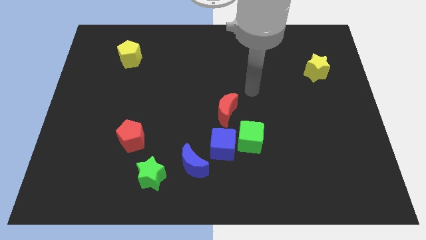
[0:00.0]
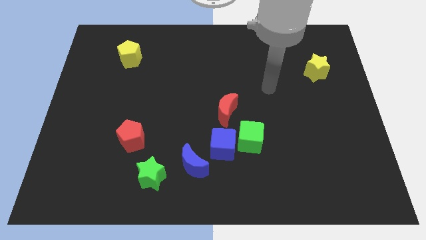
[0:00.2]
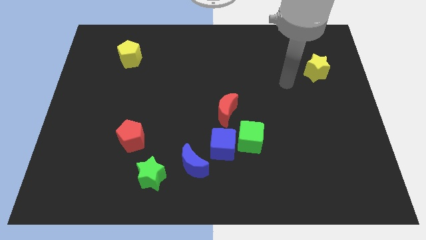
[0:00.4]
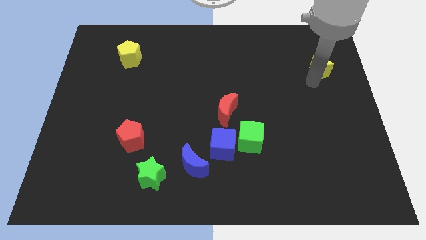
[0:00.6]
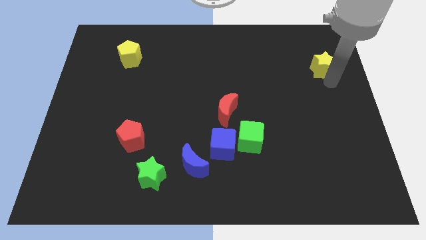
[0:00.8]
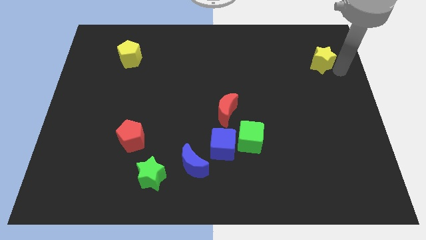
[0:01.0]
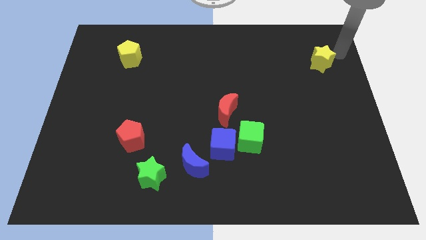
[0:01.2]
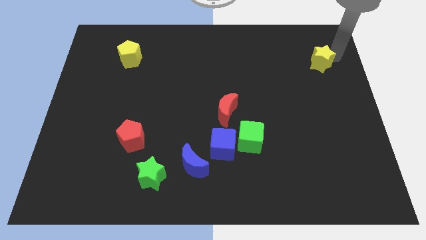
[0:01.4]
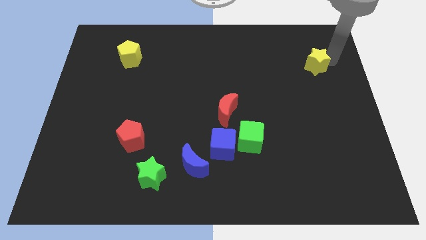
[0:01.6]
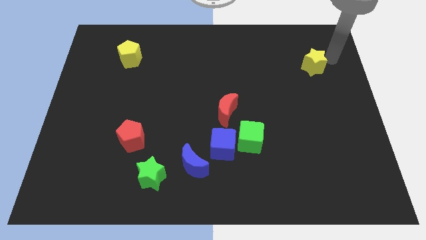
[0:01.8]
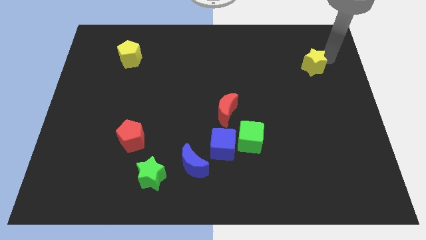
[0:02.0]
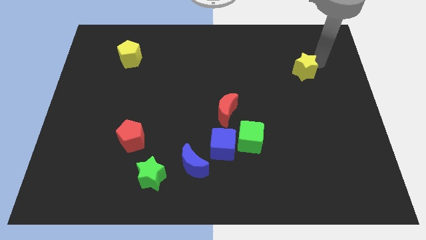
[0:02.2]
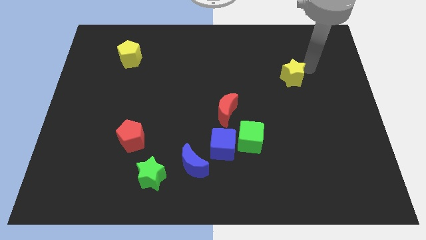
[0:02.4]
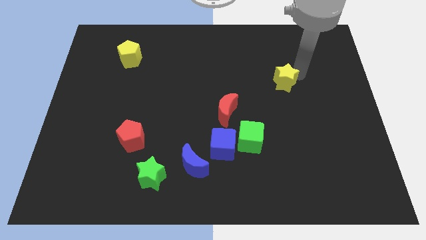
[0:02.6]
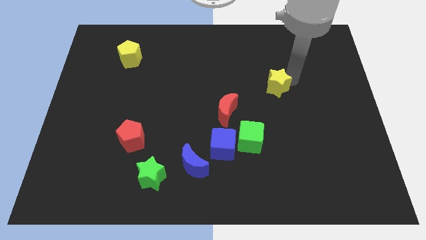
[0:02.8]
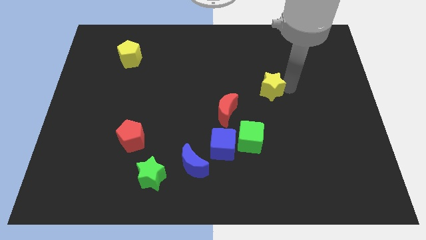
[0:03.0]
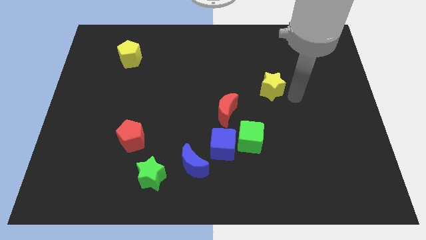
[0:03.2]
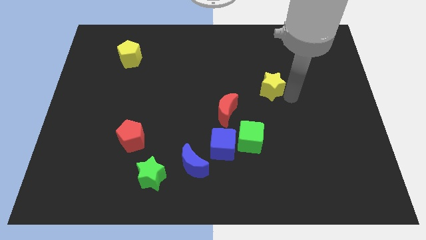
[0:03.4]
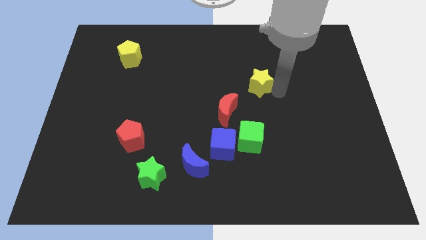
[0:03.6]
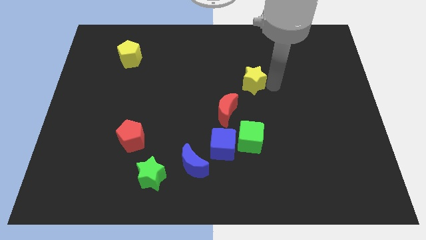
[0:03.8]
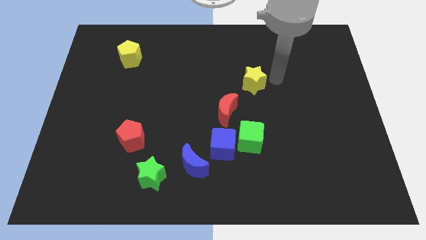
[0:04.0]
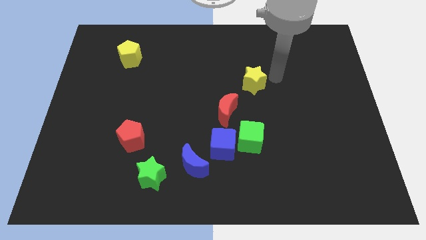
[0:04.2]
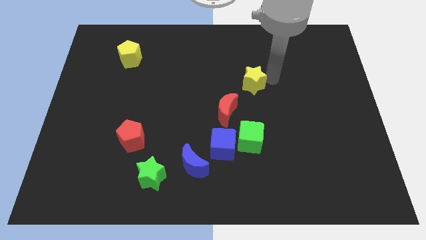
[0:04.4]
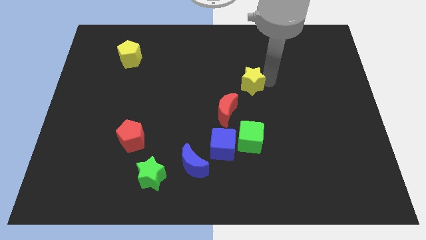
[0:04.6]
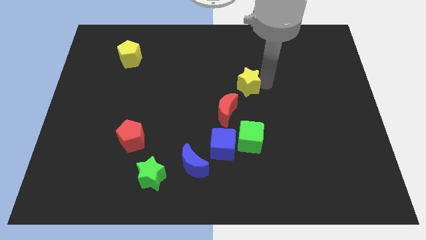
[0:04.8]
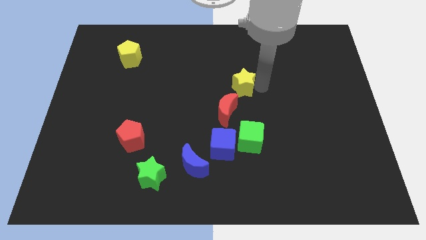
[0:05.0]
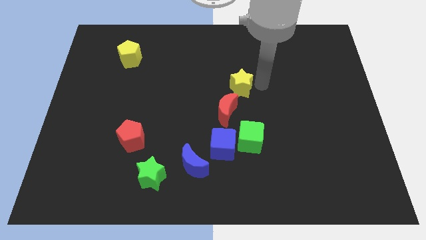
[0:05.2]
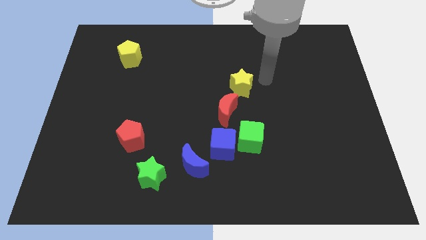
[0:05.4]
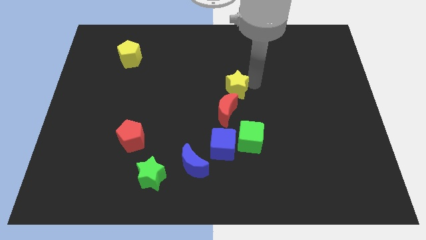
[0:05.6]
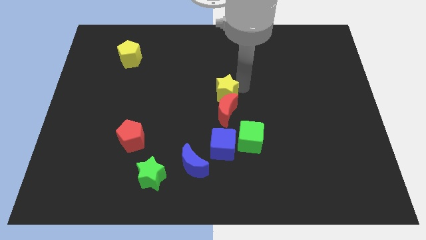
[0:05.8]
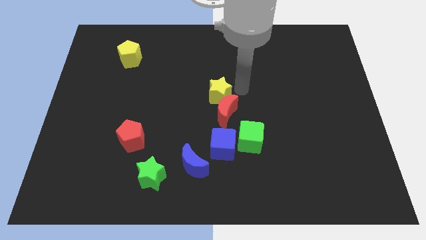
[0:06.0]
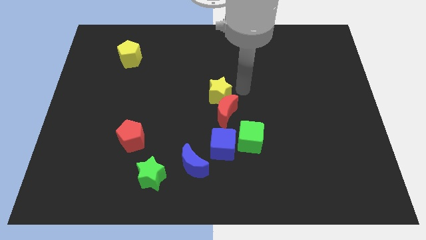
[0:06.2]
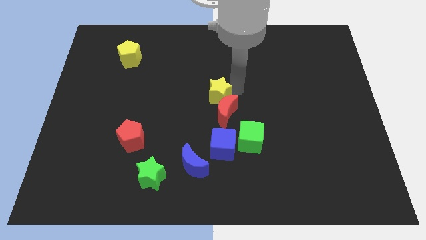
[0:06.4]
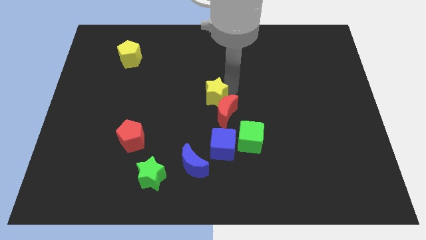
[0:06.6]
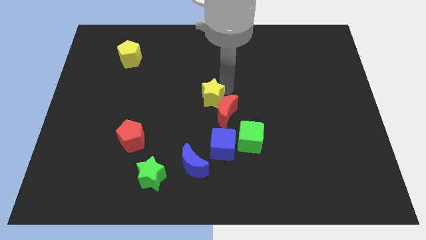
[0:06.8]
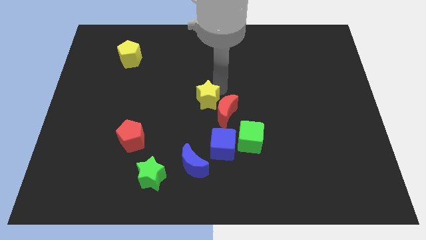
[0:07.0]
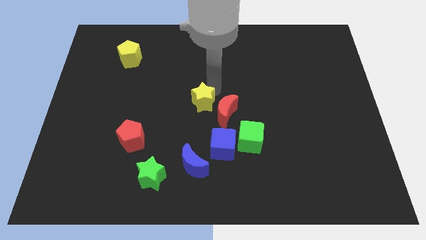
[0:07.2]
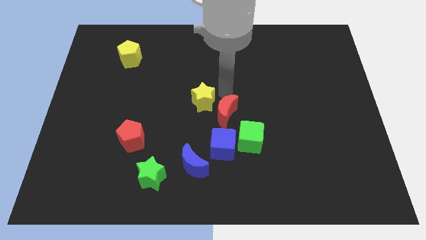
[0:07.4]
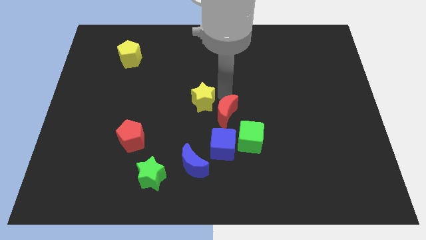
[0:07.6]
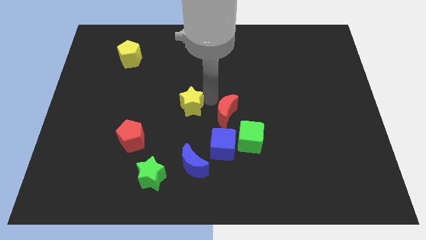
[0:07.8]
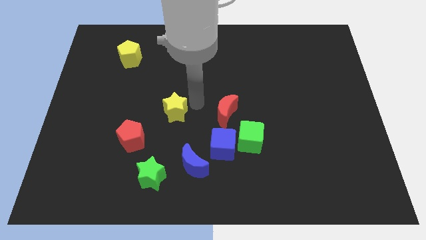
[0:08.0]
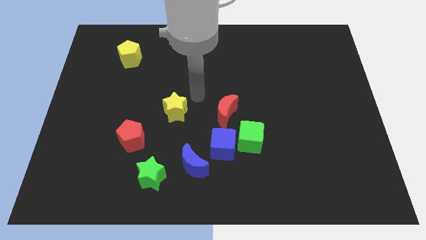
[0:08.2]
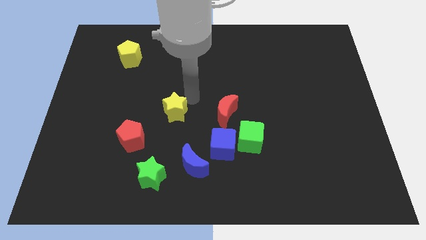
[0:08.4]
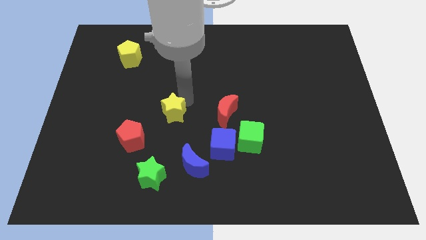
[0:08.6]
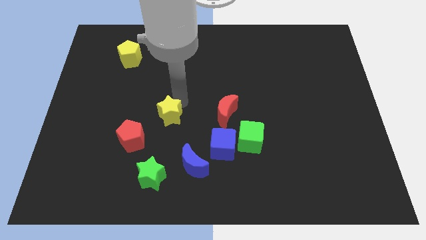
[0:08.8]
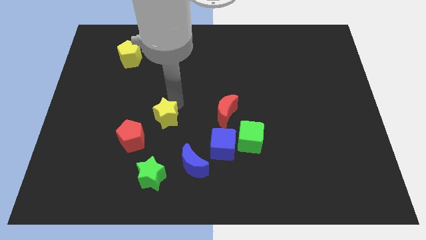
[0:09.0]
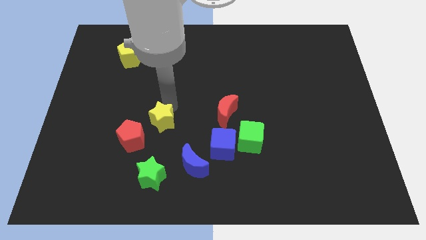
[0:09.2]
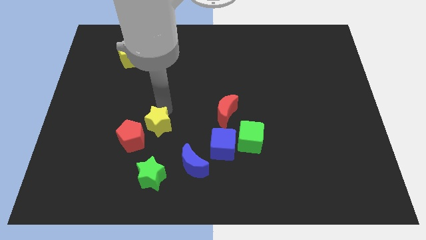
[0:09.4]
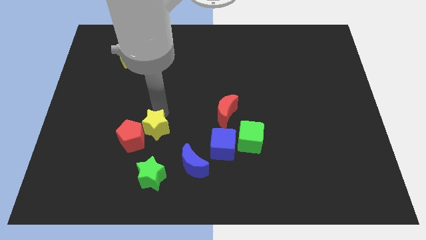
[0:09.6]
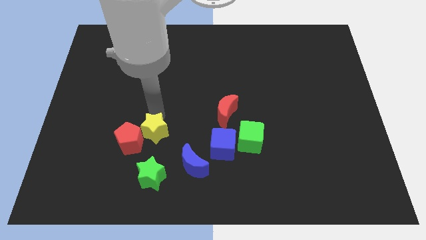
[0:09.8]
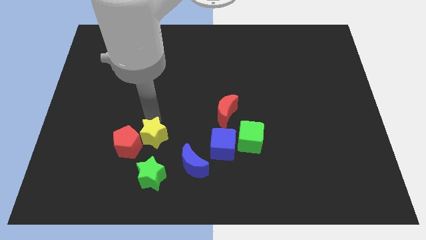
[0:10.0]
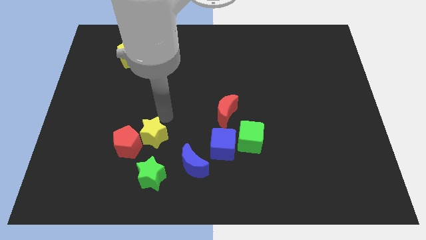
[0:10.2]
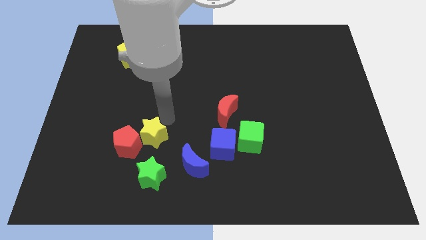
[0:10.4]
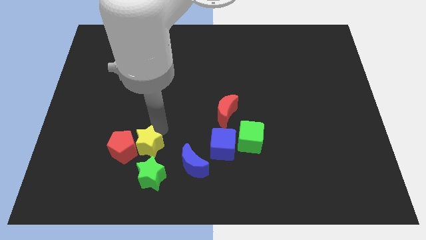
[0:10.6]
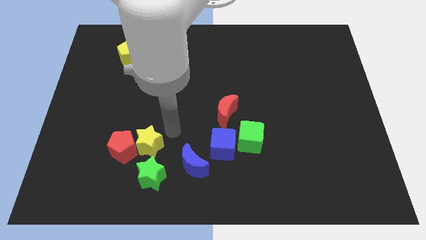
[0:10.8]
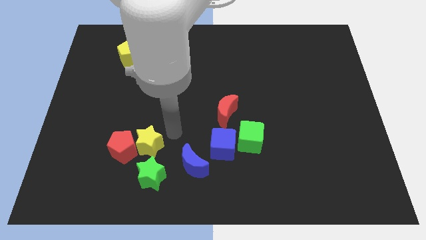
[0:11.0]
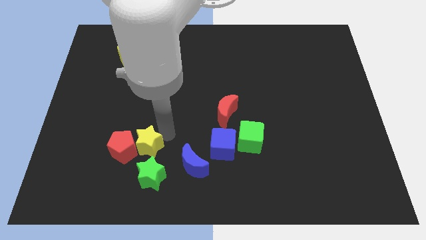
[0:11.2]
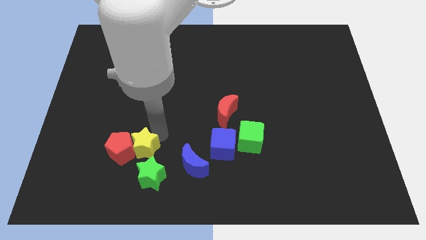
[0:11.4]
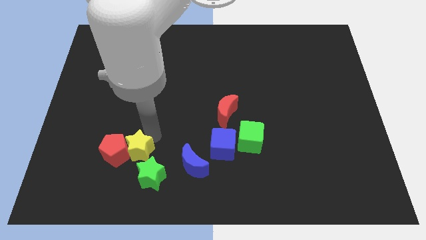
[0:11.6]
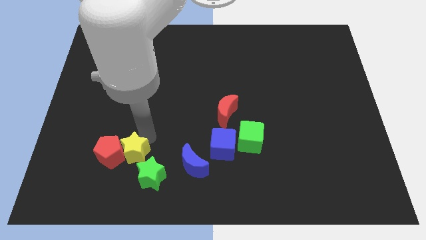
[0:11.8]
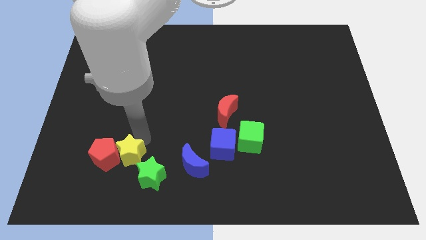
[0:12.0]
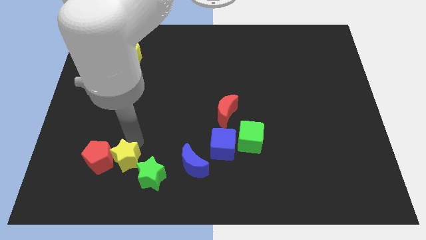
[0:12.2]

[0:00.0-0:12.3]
slide the yellow star just left of the green star

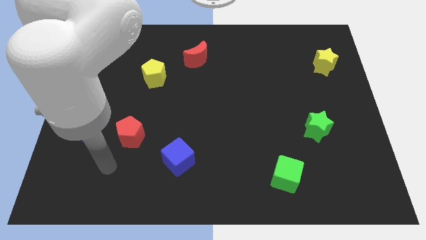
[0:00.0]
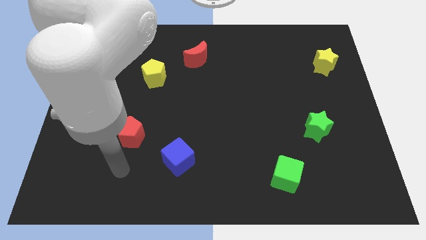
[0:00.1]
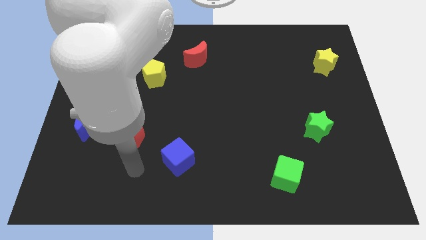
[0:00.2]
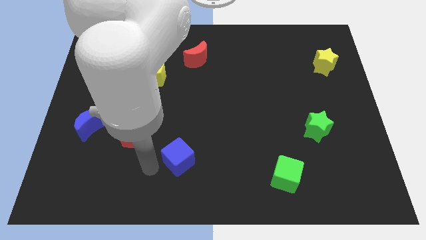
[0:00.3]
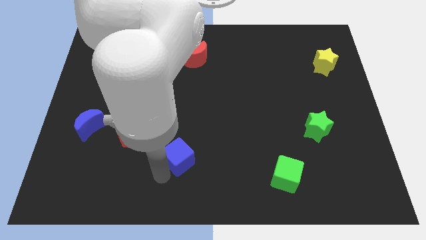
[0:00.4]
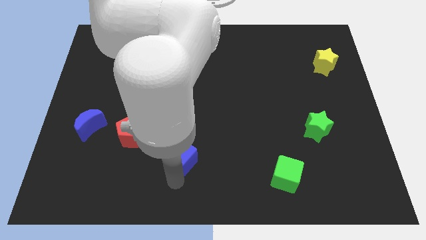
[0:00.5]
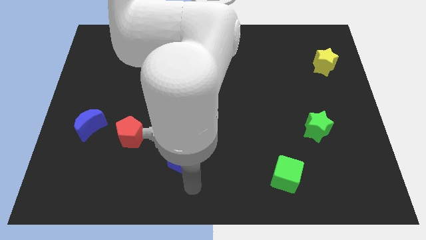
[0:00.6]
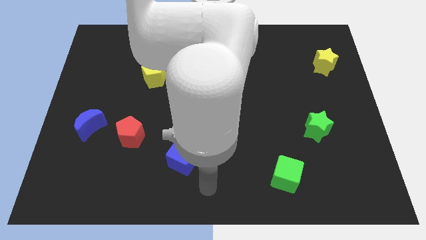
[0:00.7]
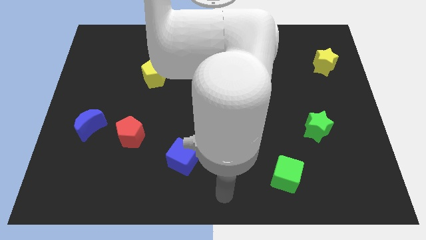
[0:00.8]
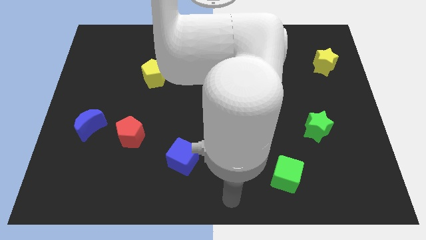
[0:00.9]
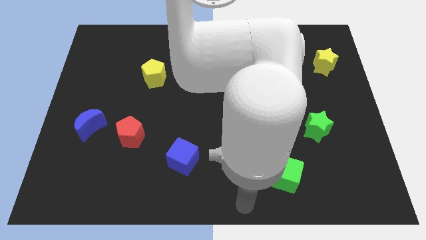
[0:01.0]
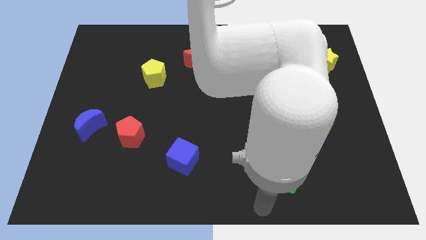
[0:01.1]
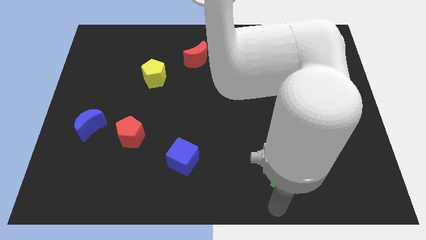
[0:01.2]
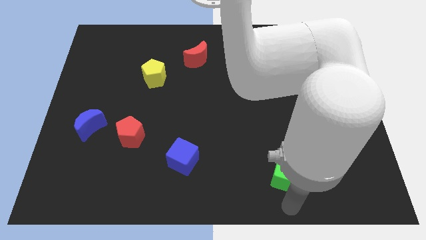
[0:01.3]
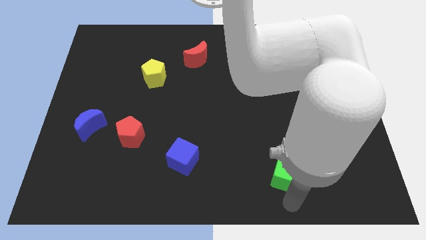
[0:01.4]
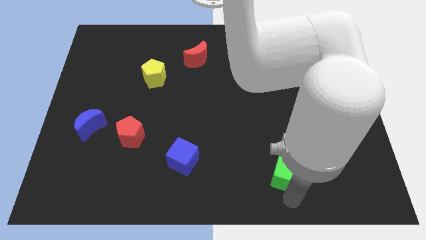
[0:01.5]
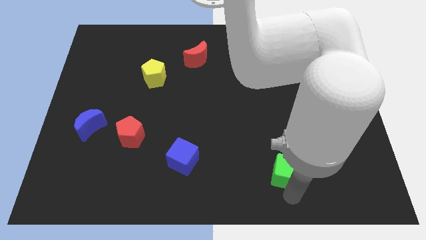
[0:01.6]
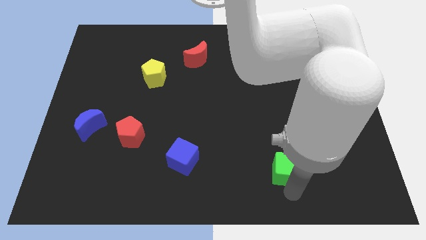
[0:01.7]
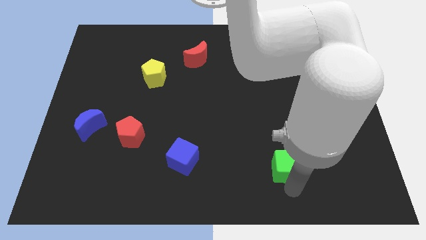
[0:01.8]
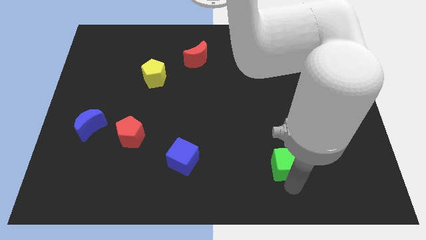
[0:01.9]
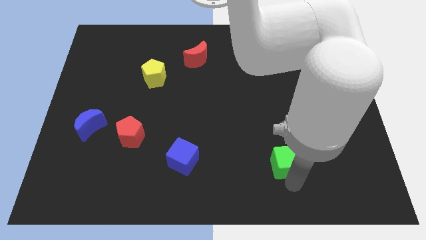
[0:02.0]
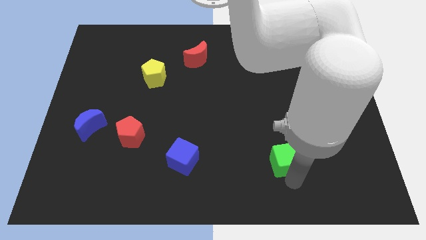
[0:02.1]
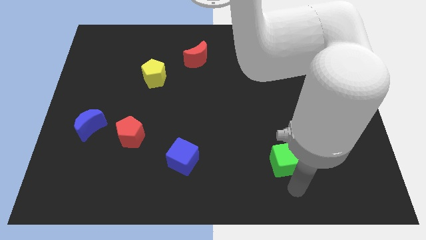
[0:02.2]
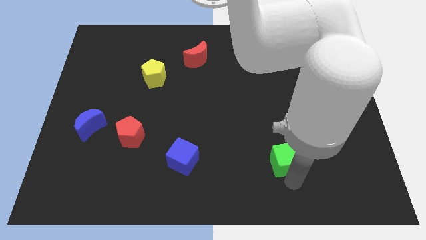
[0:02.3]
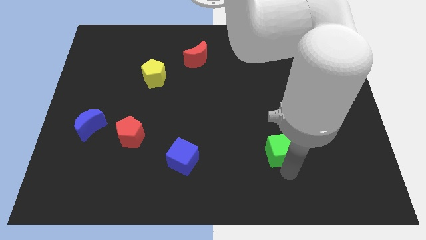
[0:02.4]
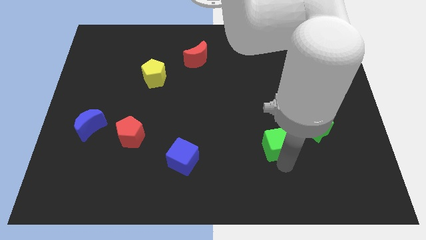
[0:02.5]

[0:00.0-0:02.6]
put the green cube to the left side of the green star
